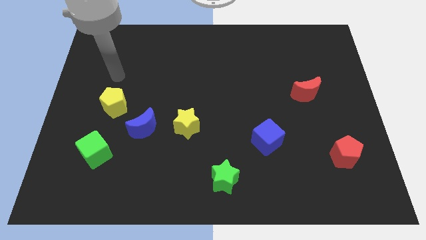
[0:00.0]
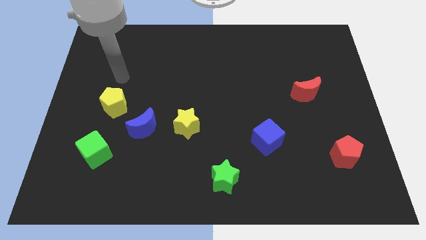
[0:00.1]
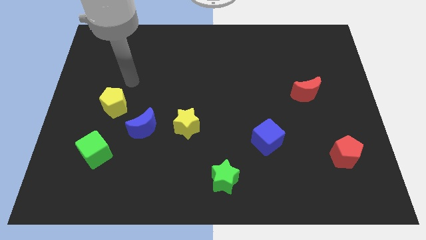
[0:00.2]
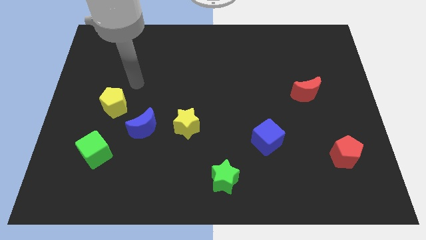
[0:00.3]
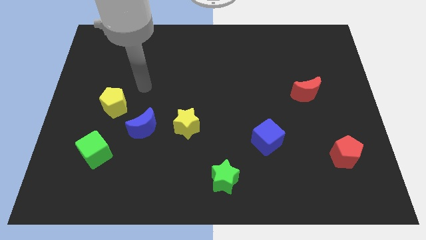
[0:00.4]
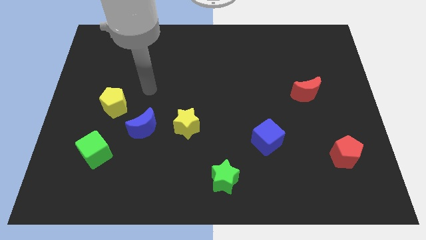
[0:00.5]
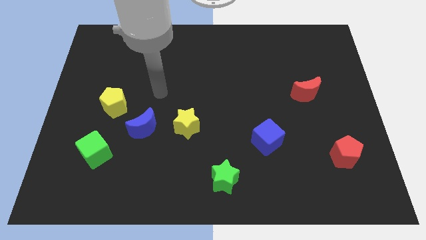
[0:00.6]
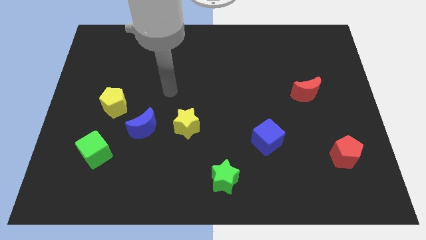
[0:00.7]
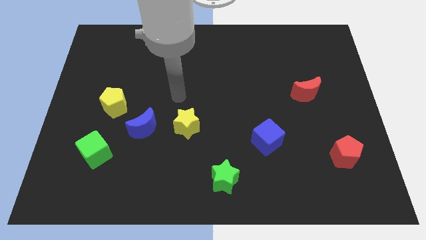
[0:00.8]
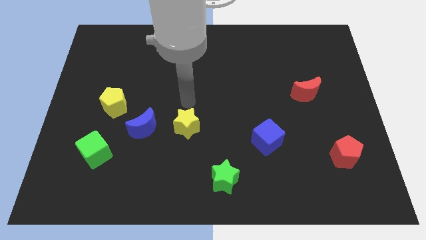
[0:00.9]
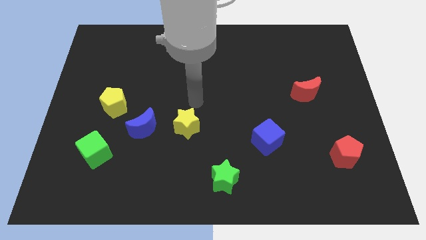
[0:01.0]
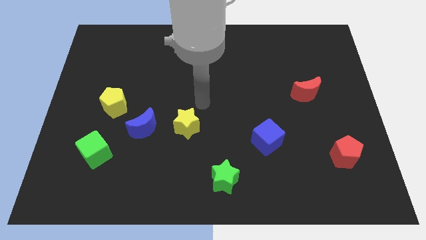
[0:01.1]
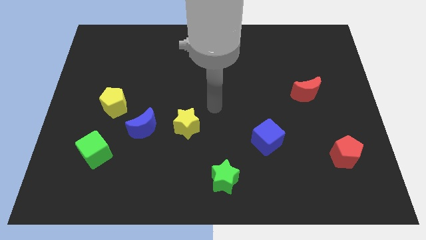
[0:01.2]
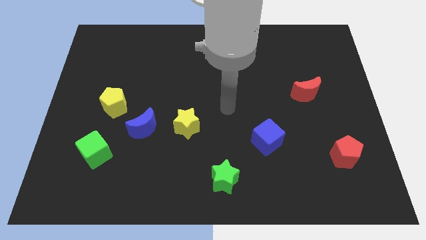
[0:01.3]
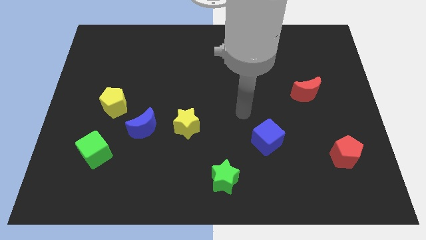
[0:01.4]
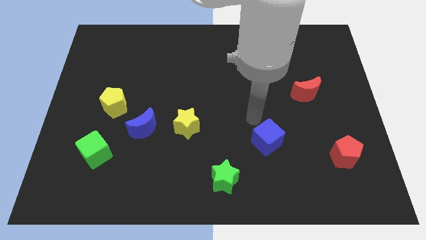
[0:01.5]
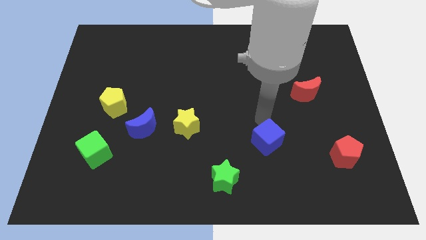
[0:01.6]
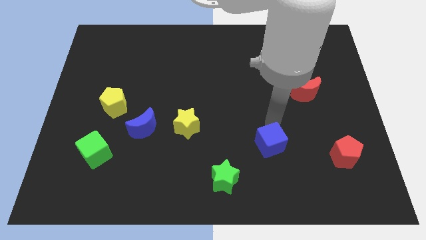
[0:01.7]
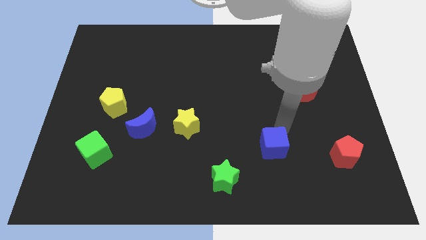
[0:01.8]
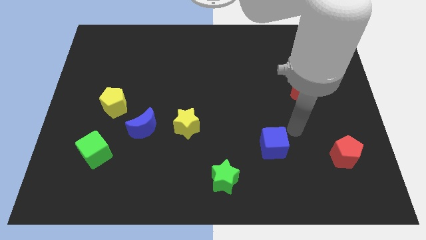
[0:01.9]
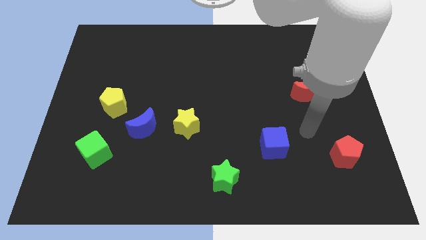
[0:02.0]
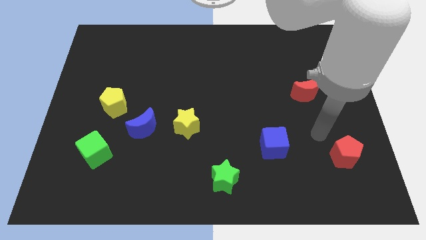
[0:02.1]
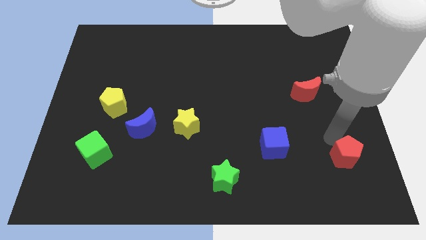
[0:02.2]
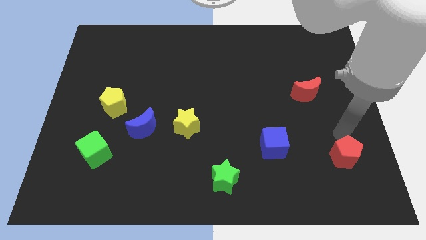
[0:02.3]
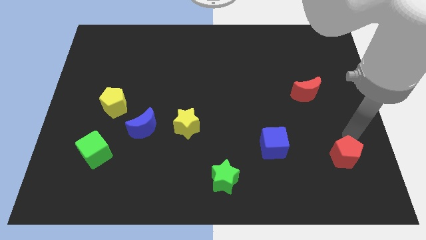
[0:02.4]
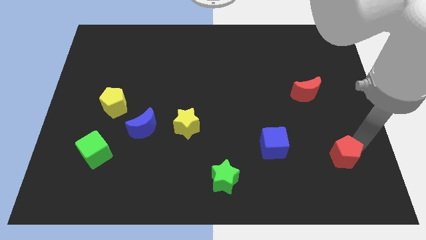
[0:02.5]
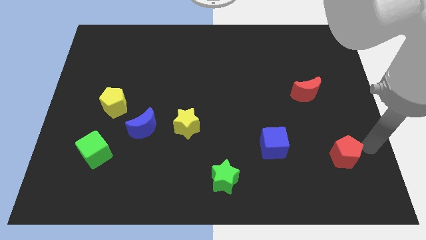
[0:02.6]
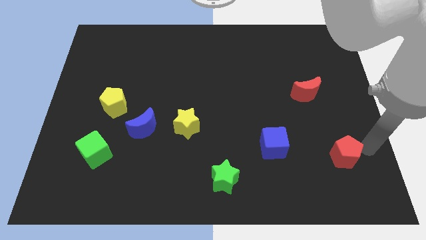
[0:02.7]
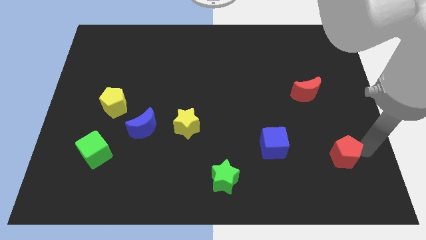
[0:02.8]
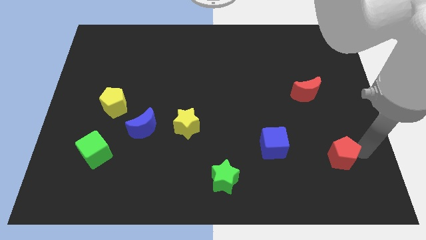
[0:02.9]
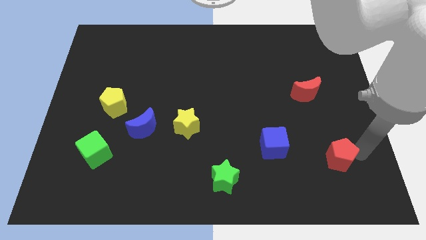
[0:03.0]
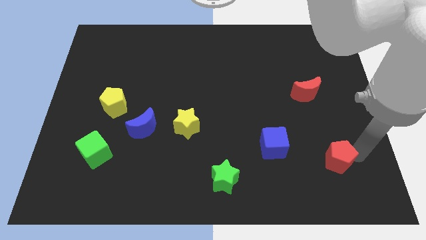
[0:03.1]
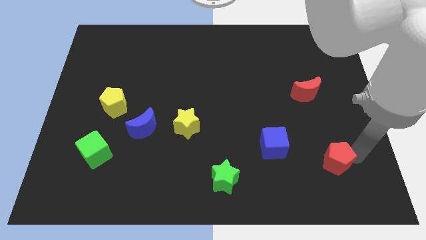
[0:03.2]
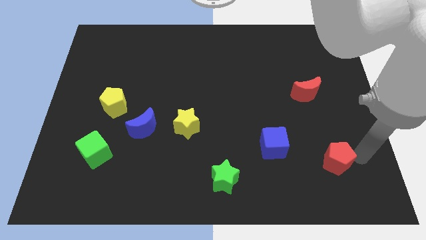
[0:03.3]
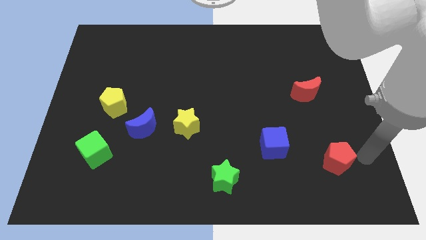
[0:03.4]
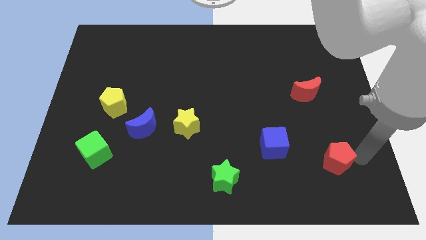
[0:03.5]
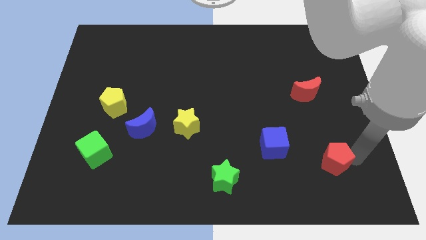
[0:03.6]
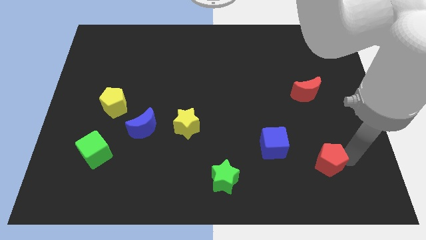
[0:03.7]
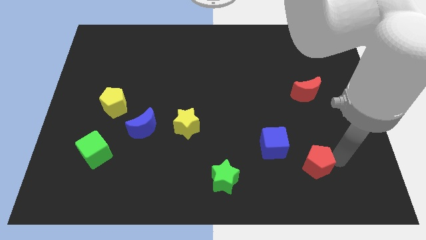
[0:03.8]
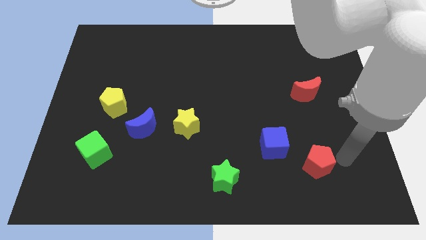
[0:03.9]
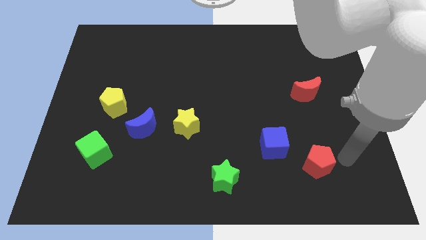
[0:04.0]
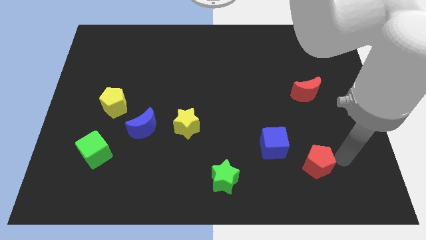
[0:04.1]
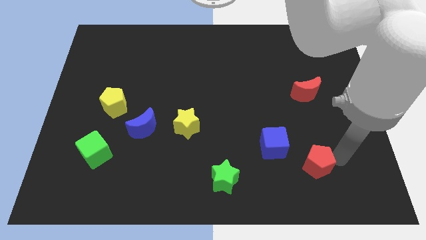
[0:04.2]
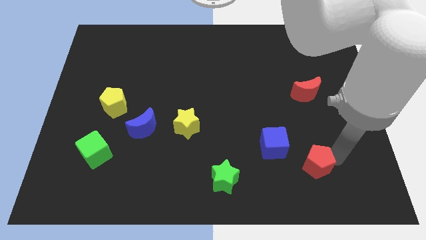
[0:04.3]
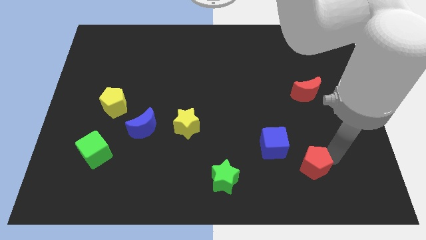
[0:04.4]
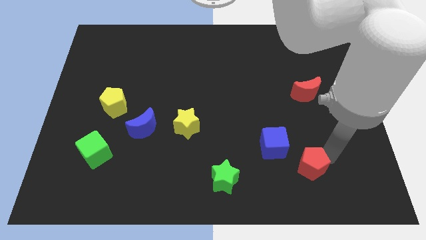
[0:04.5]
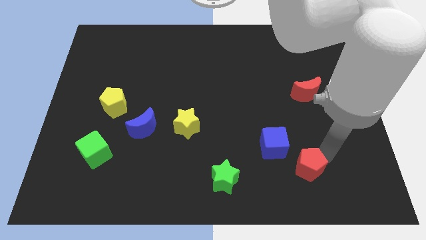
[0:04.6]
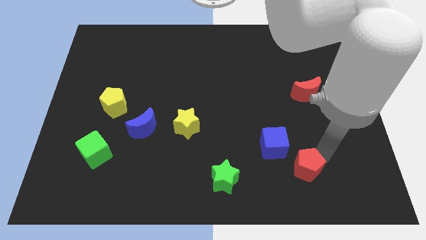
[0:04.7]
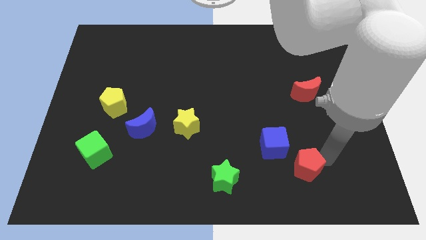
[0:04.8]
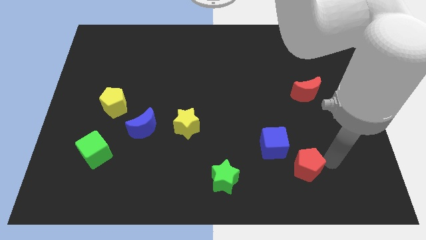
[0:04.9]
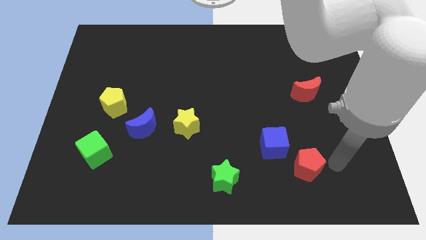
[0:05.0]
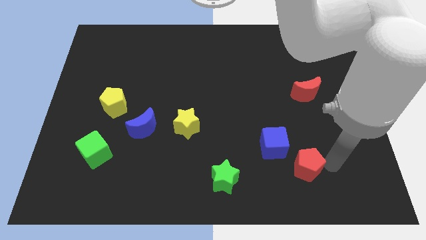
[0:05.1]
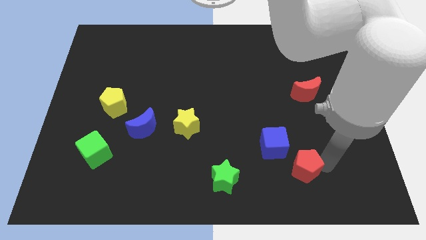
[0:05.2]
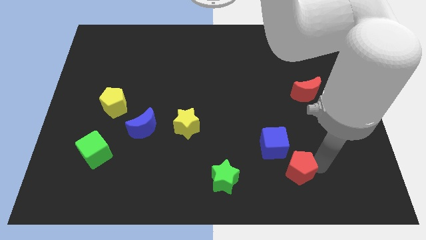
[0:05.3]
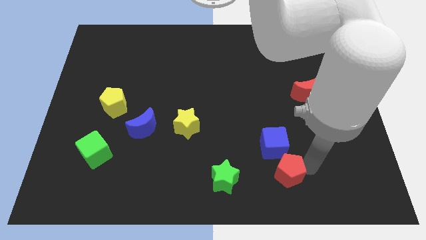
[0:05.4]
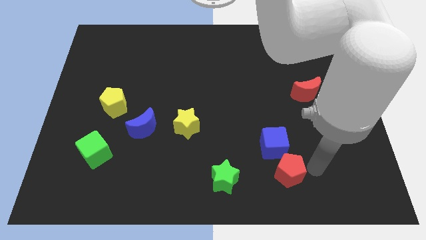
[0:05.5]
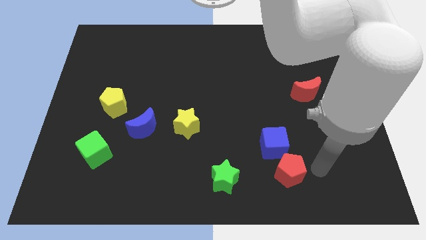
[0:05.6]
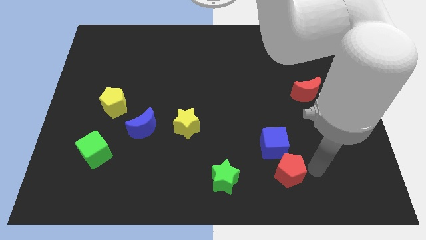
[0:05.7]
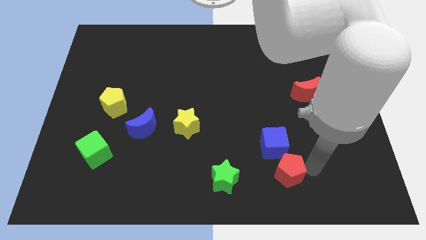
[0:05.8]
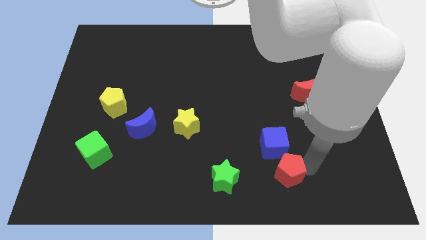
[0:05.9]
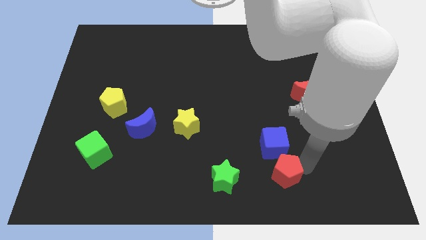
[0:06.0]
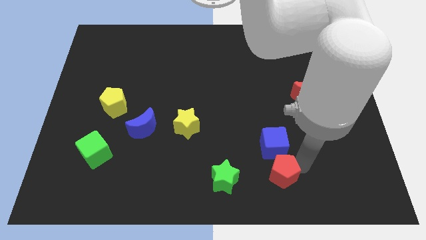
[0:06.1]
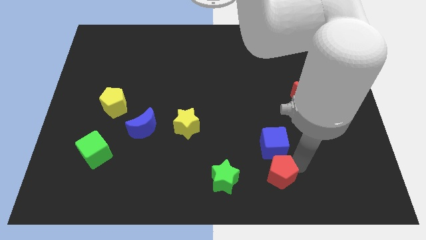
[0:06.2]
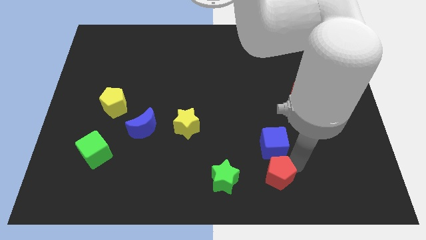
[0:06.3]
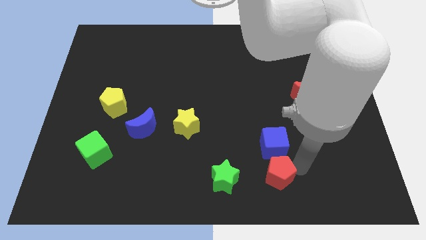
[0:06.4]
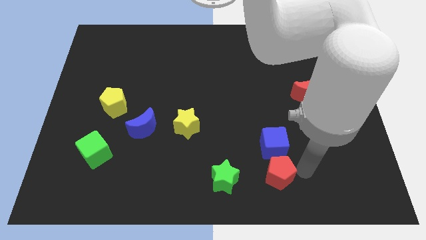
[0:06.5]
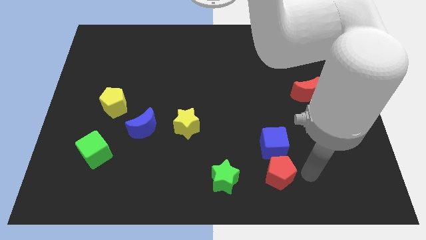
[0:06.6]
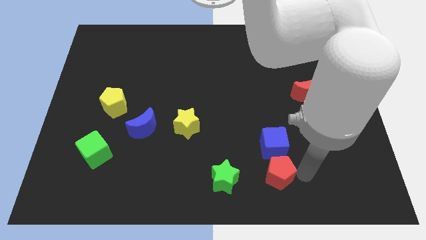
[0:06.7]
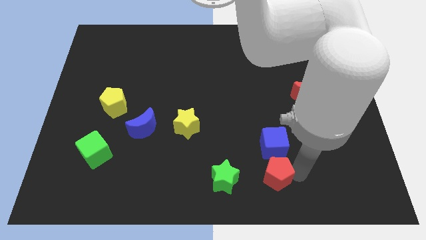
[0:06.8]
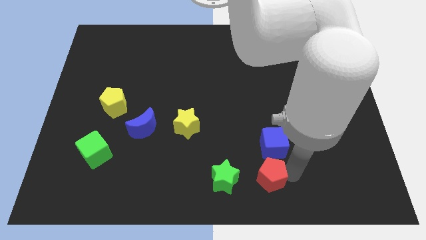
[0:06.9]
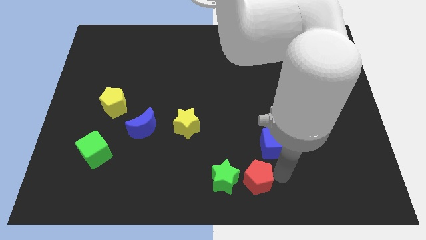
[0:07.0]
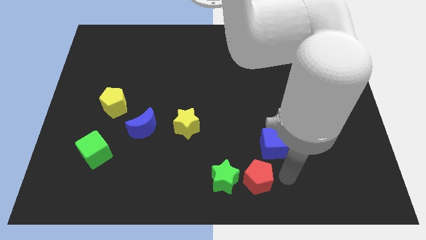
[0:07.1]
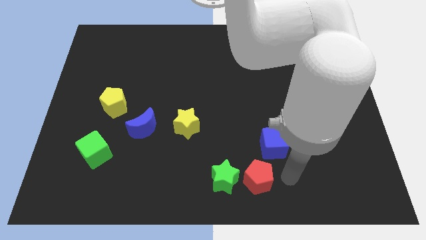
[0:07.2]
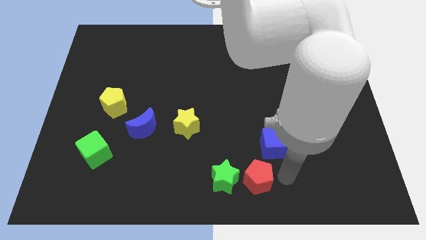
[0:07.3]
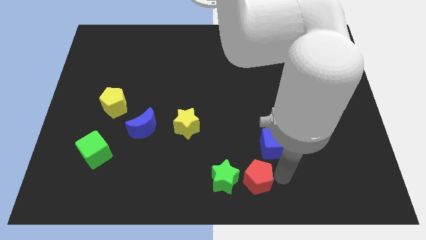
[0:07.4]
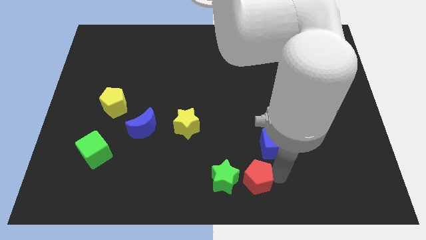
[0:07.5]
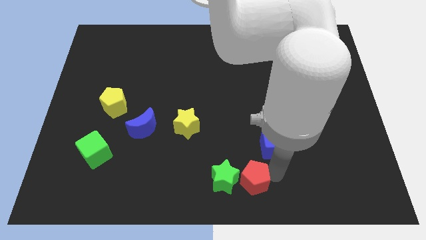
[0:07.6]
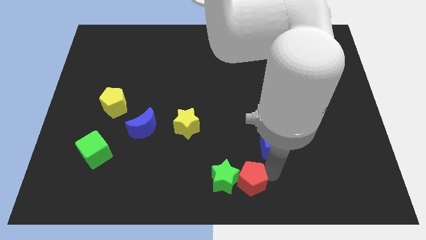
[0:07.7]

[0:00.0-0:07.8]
put the red pentagon to the green star
